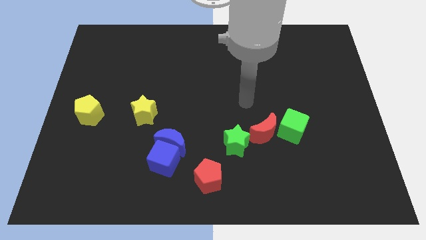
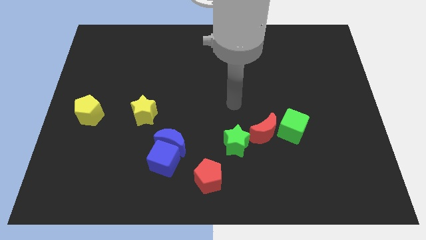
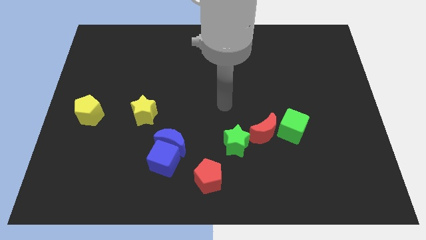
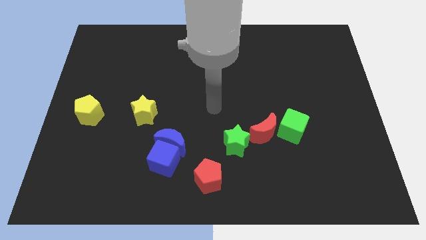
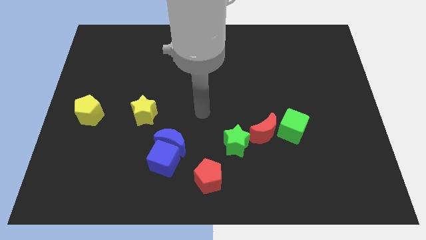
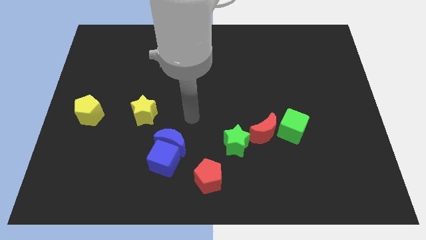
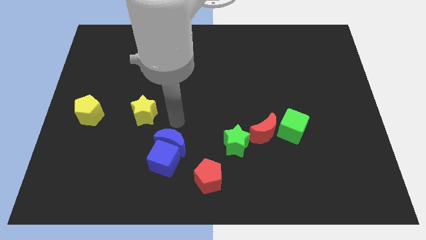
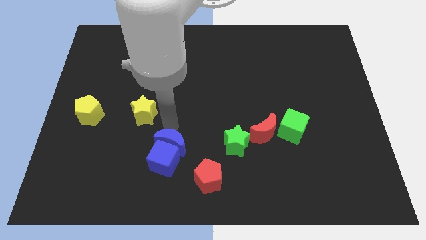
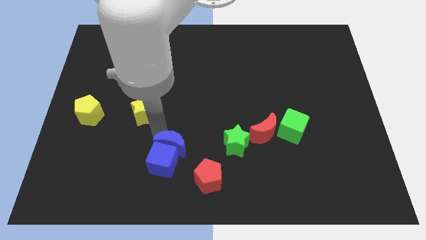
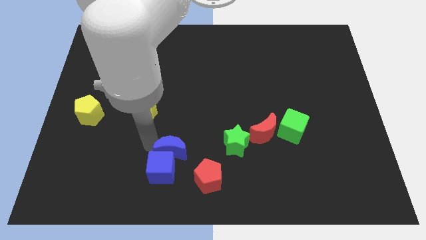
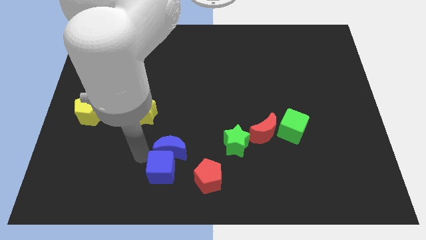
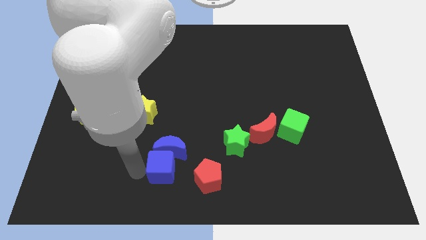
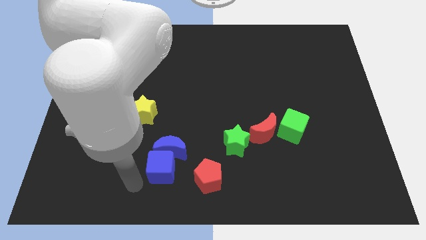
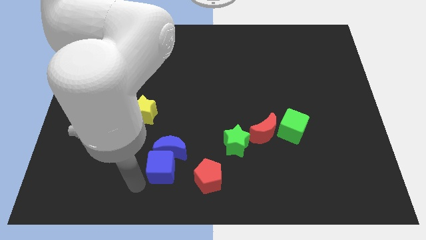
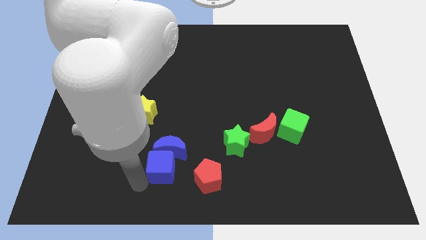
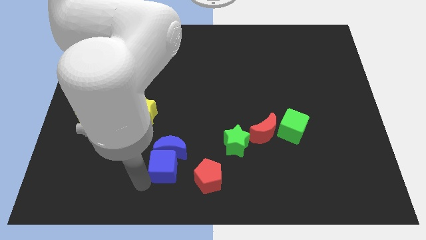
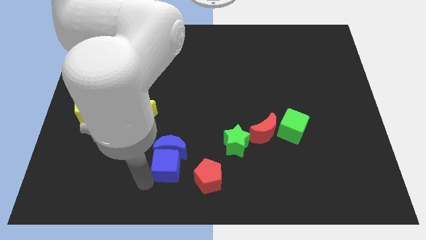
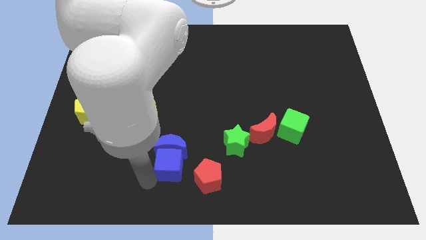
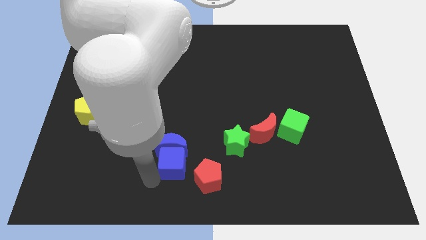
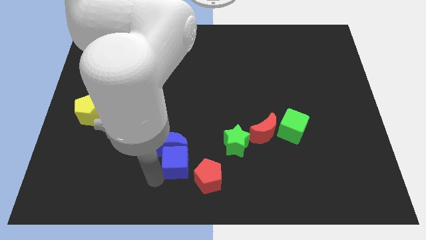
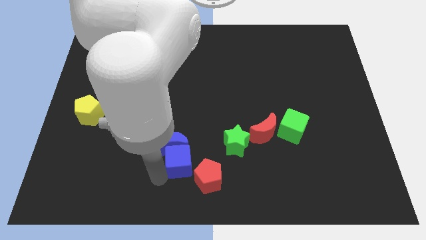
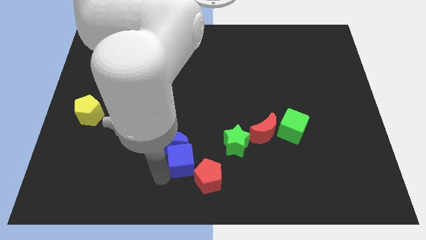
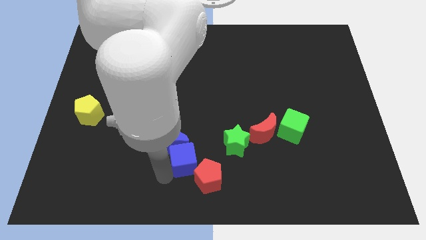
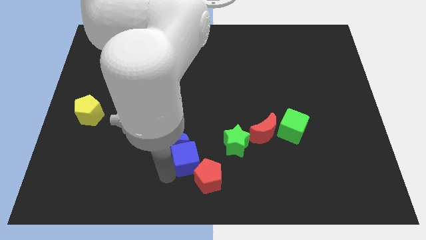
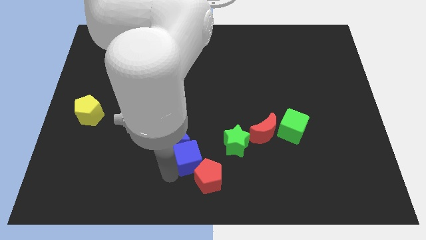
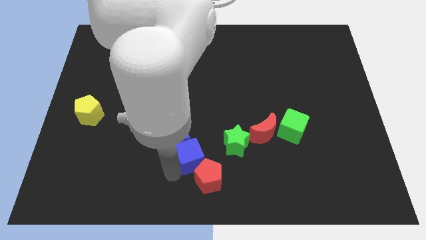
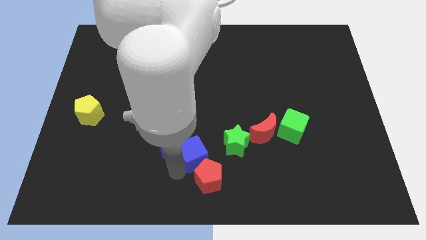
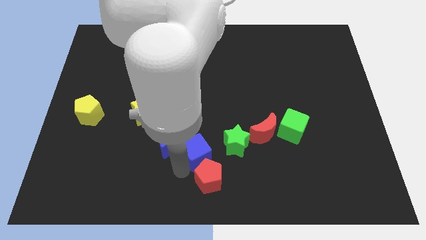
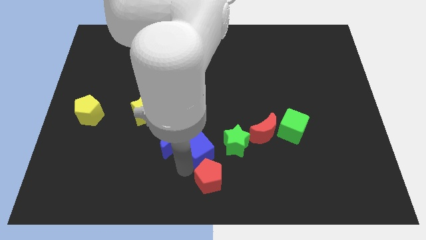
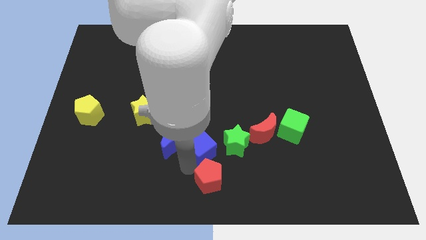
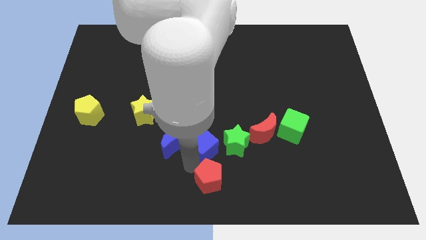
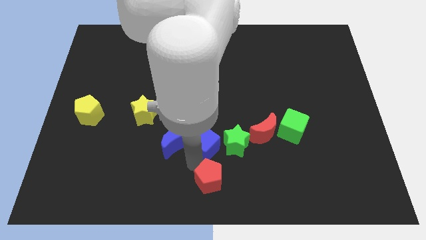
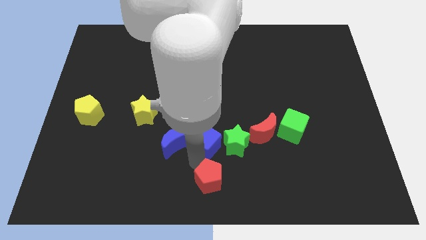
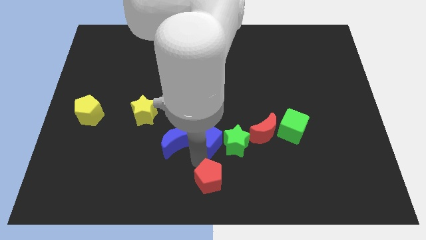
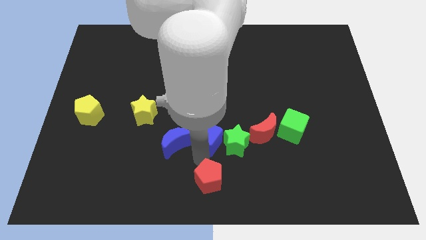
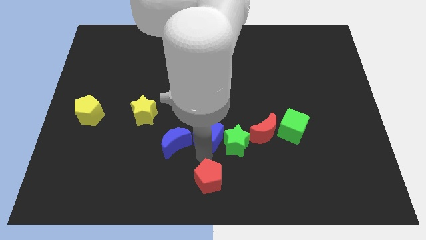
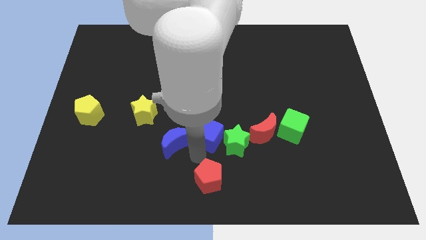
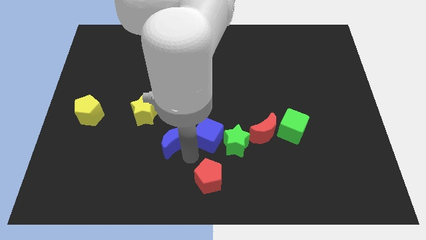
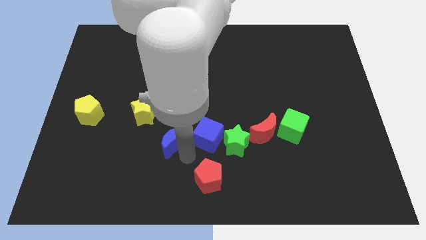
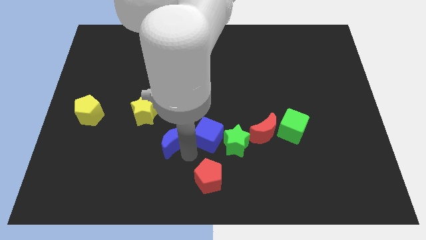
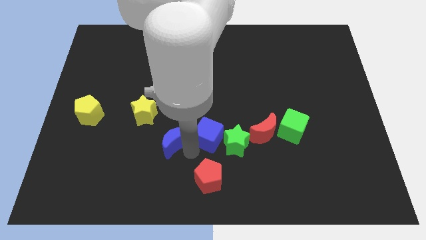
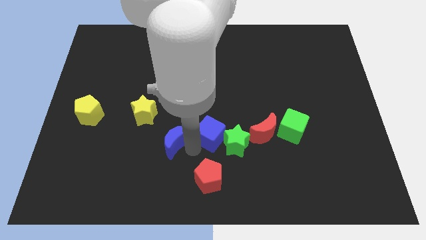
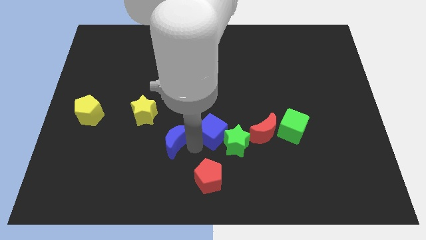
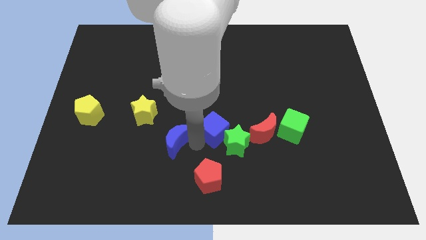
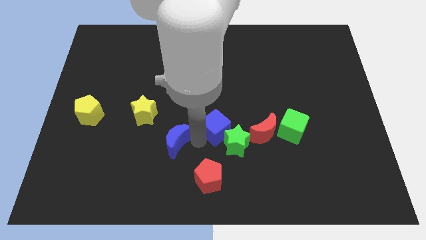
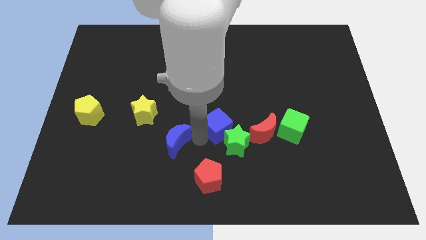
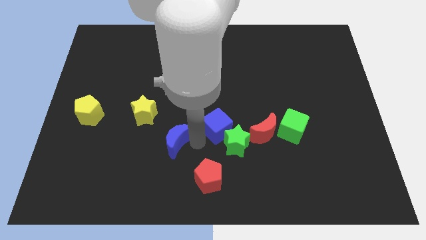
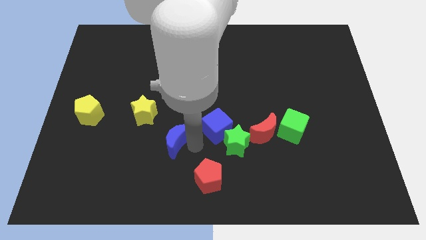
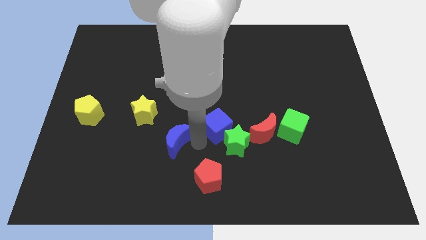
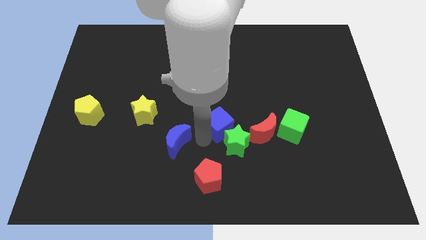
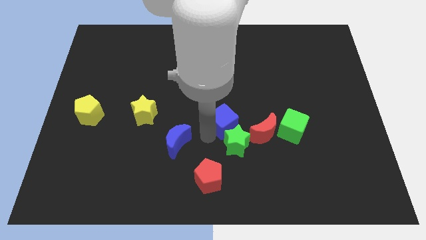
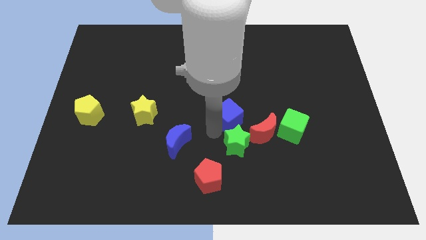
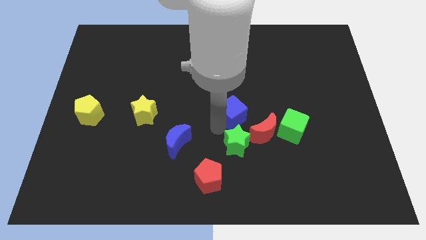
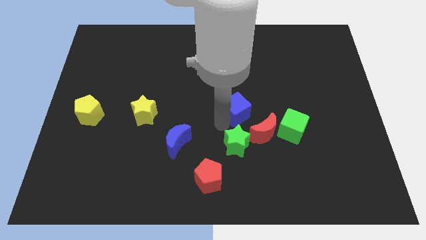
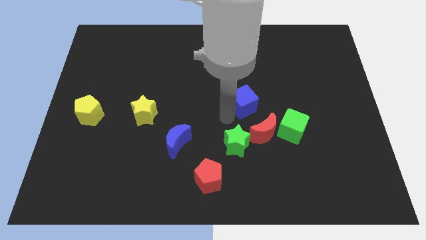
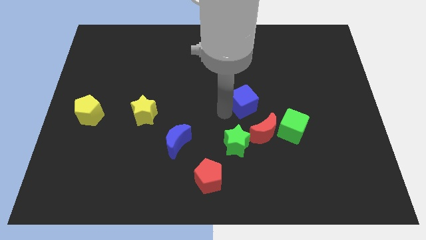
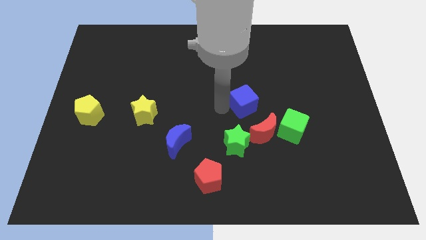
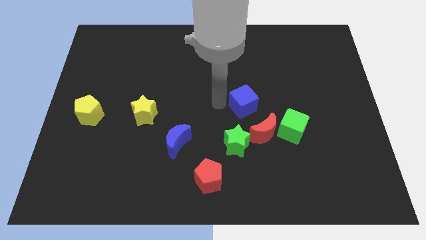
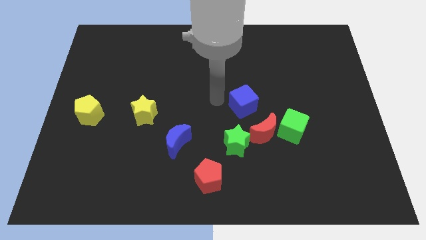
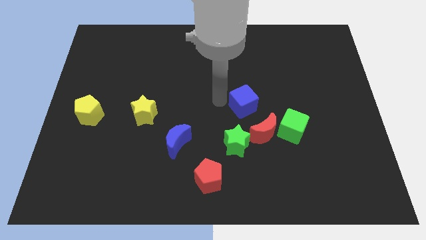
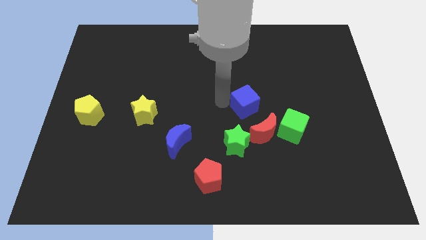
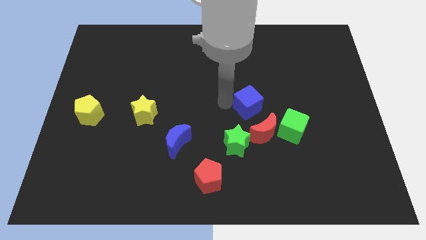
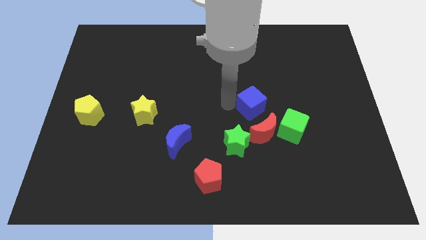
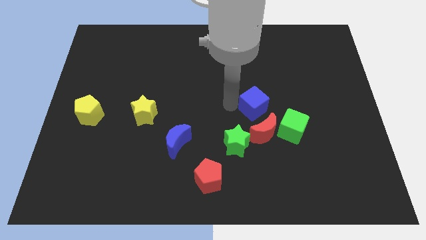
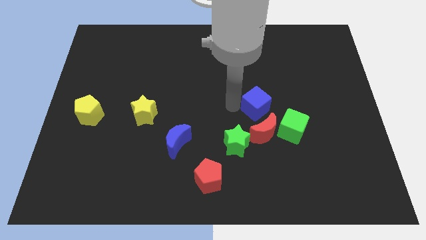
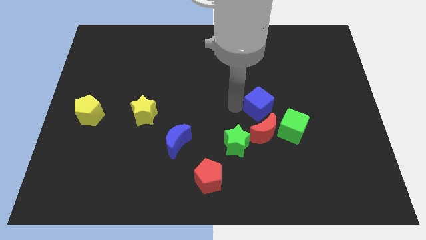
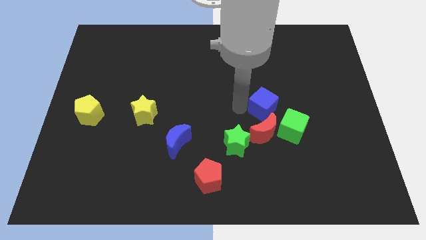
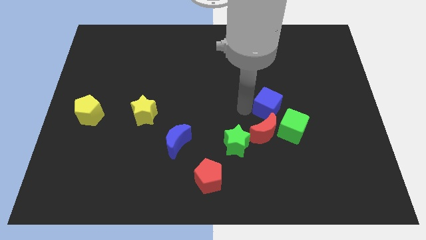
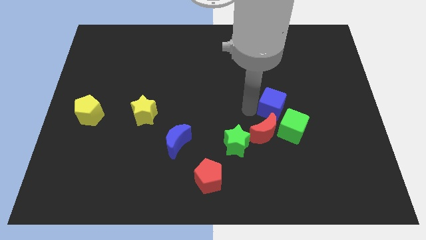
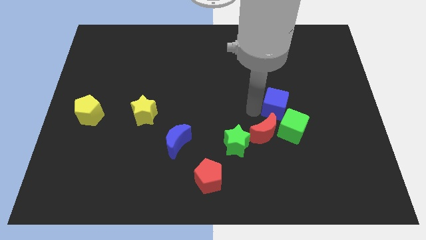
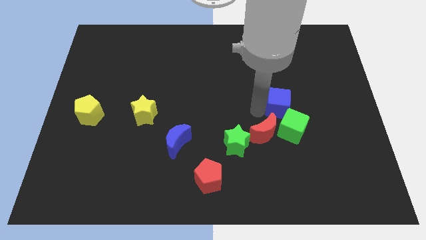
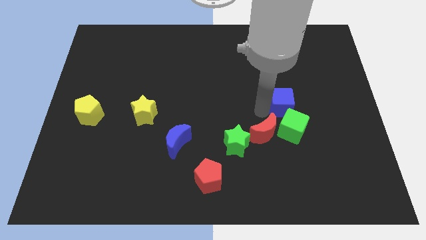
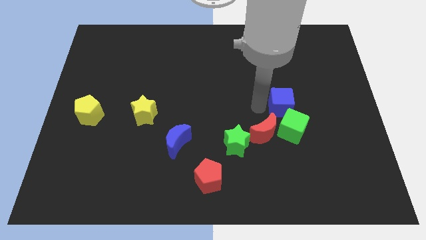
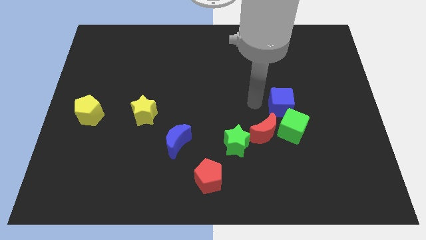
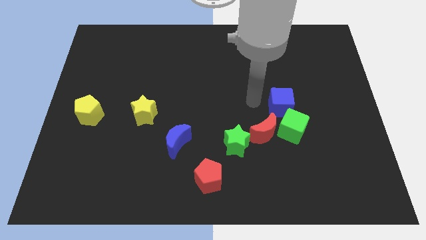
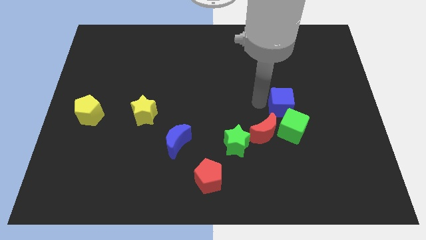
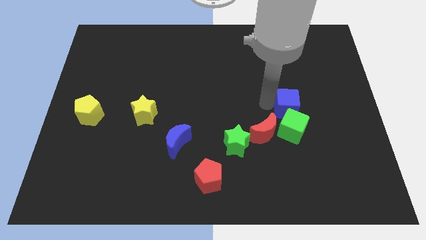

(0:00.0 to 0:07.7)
move the blue cube diagonally up and to the right of the green cube
